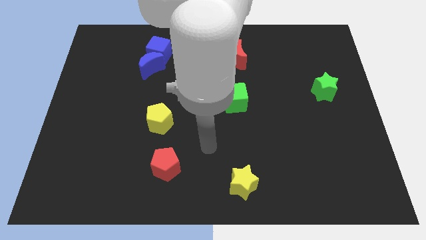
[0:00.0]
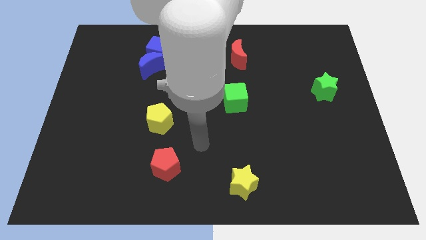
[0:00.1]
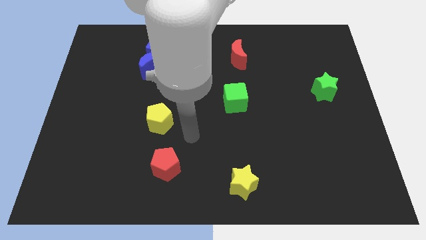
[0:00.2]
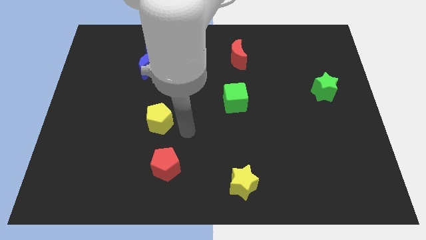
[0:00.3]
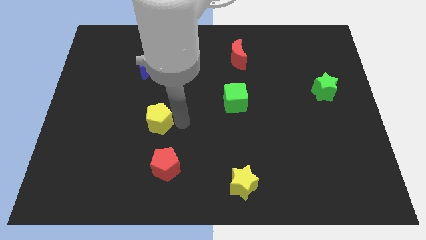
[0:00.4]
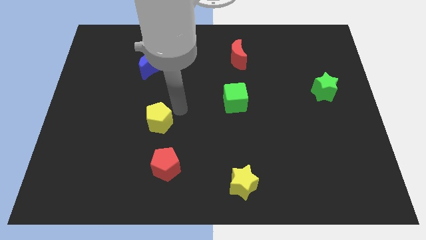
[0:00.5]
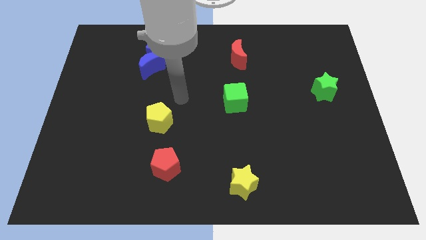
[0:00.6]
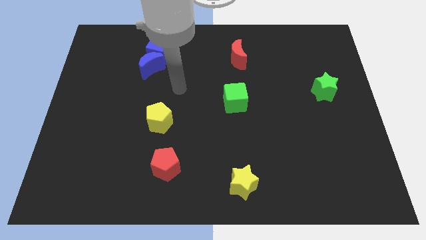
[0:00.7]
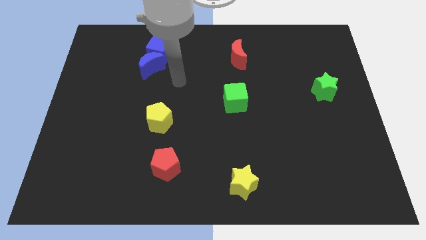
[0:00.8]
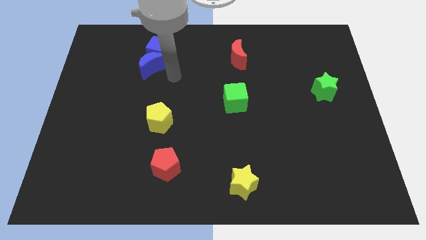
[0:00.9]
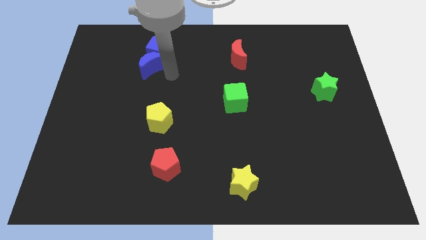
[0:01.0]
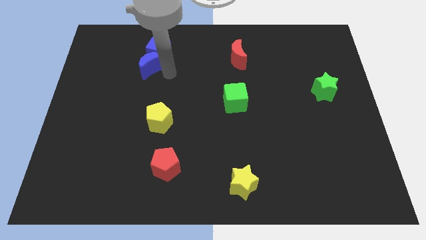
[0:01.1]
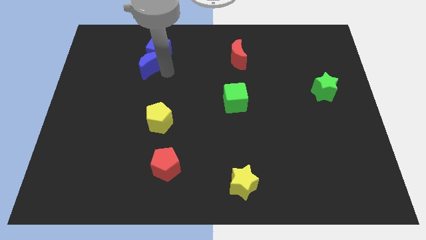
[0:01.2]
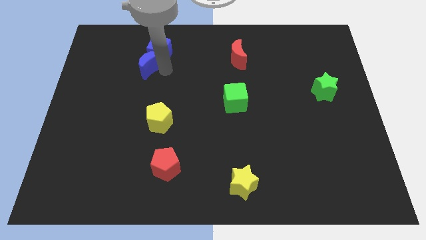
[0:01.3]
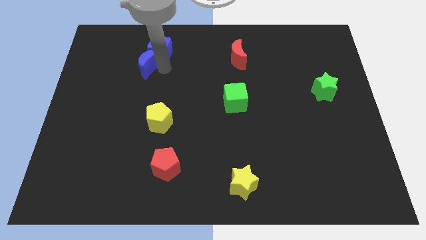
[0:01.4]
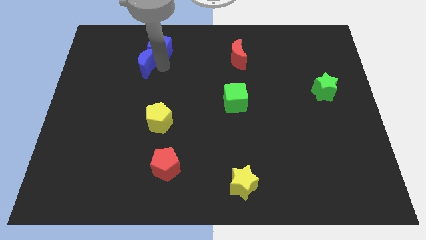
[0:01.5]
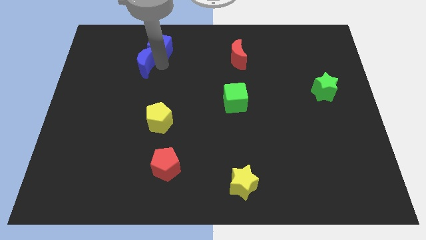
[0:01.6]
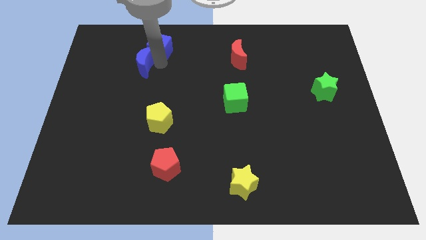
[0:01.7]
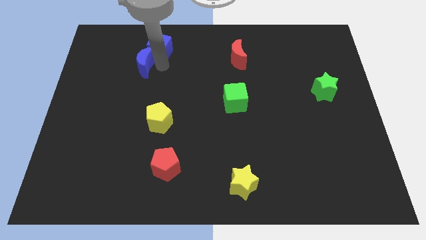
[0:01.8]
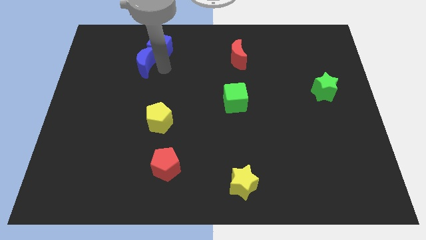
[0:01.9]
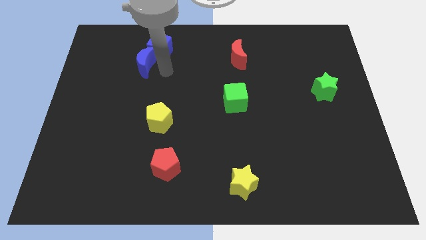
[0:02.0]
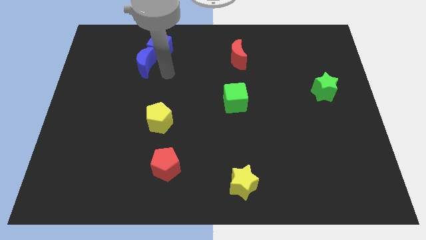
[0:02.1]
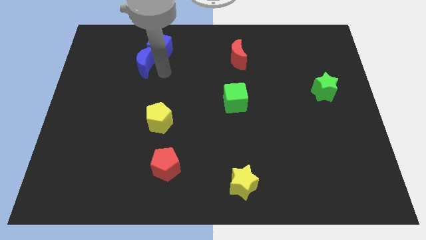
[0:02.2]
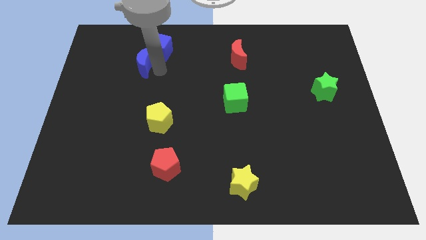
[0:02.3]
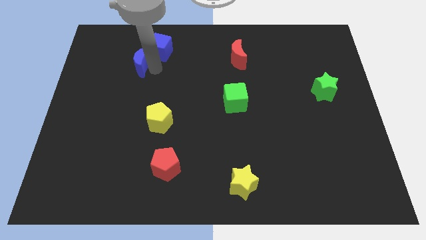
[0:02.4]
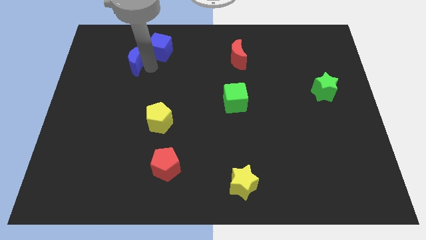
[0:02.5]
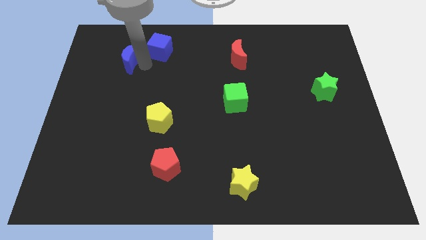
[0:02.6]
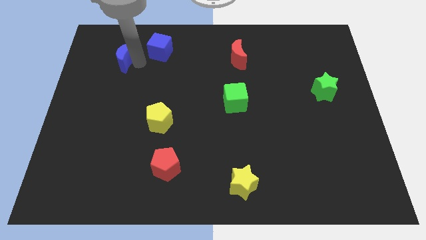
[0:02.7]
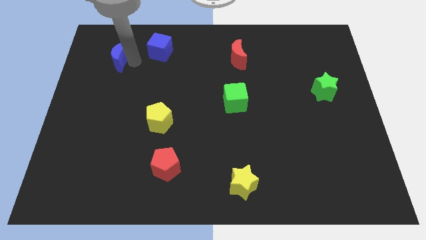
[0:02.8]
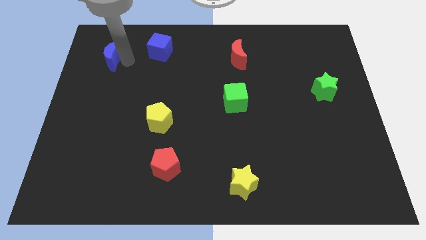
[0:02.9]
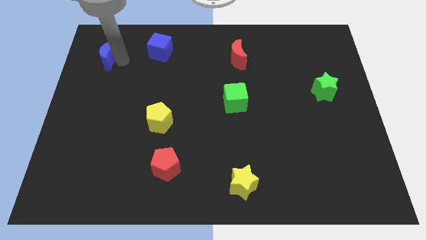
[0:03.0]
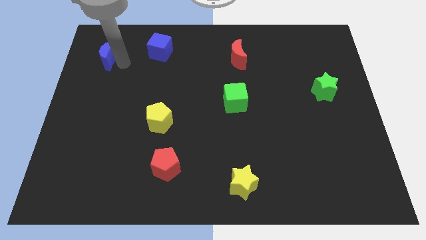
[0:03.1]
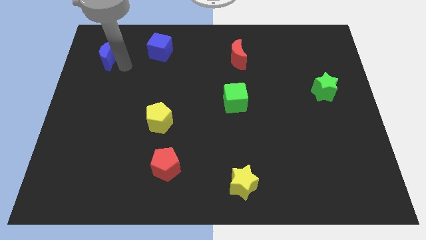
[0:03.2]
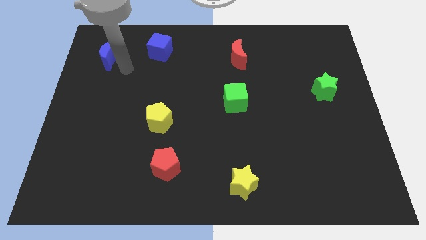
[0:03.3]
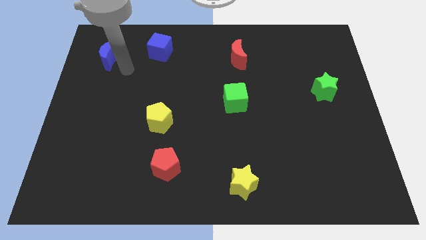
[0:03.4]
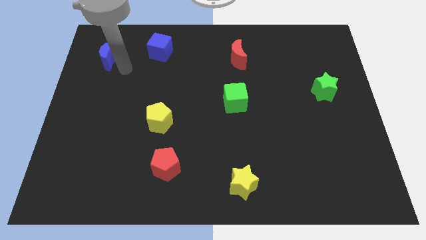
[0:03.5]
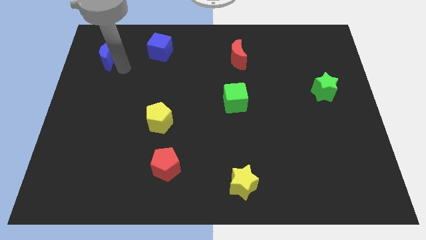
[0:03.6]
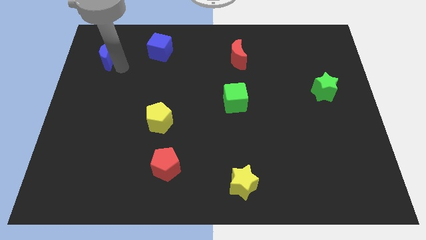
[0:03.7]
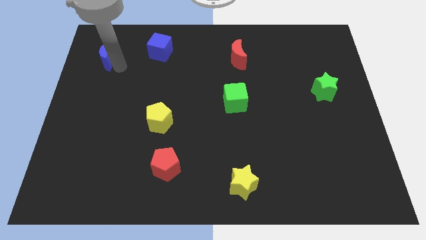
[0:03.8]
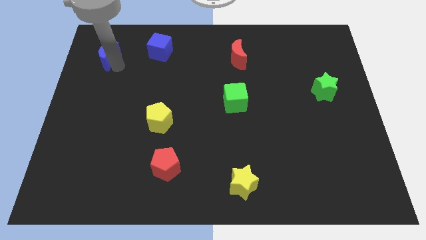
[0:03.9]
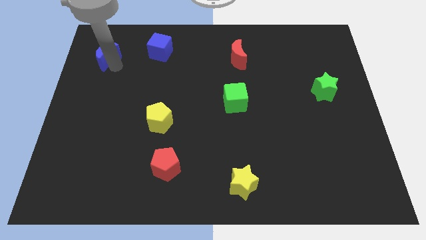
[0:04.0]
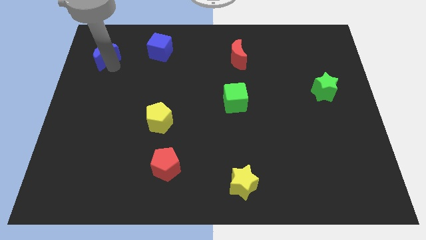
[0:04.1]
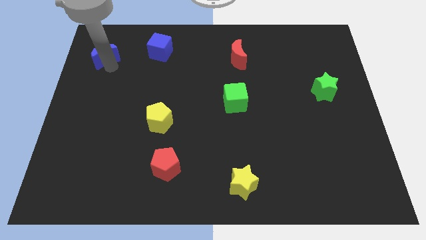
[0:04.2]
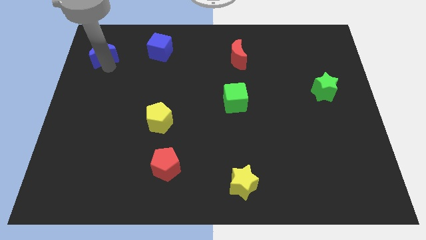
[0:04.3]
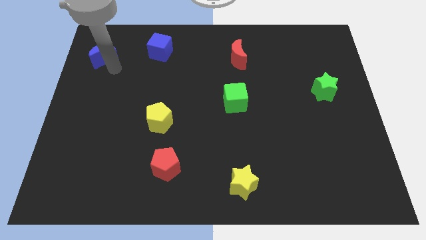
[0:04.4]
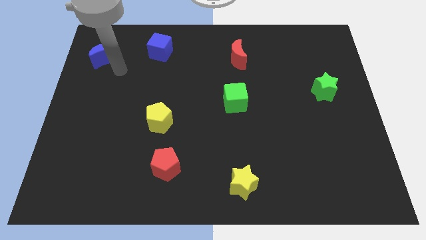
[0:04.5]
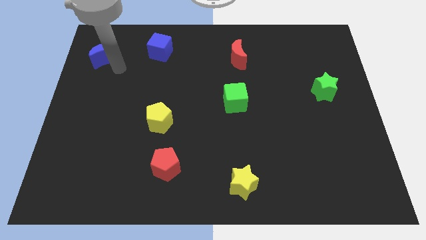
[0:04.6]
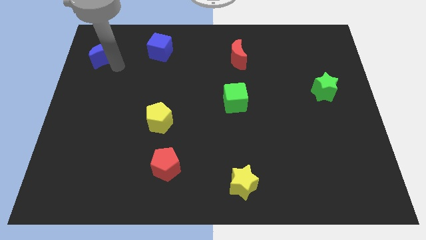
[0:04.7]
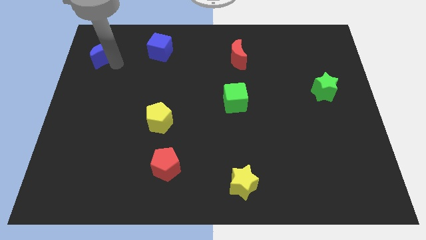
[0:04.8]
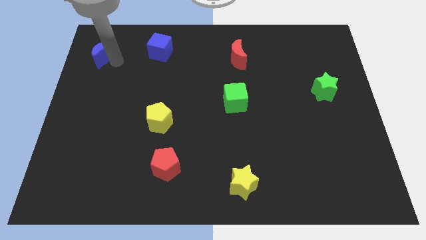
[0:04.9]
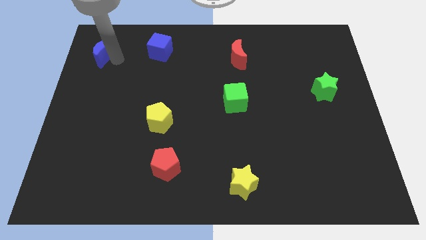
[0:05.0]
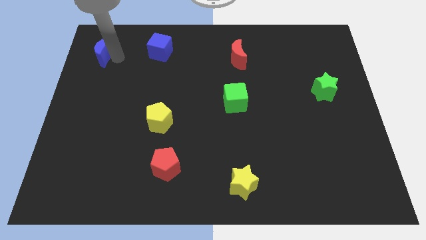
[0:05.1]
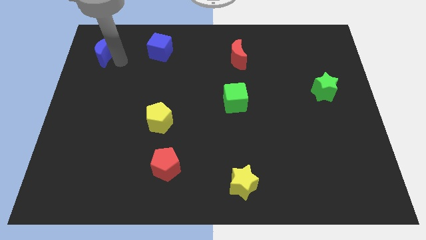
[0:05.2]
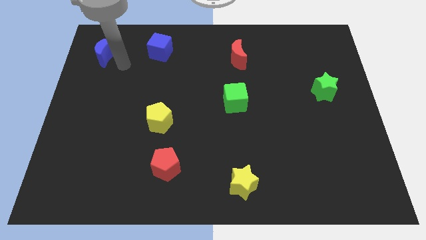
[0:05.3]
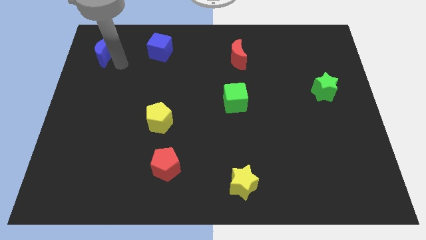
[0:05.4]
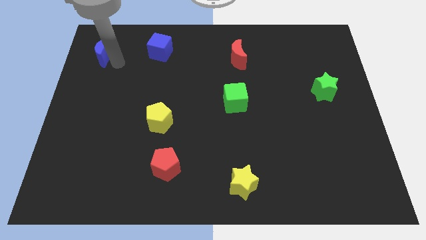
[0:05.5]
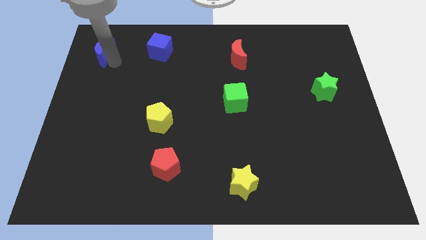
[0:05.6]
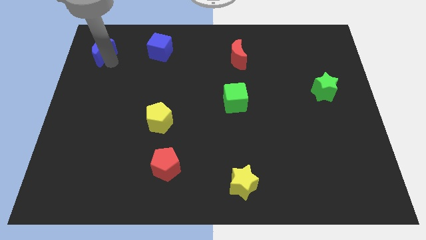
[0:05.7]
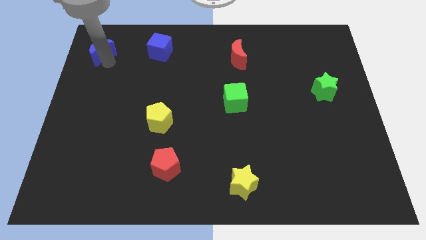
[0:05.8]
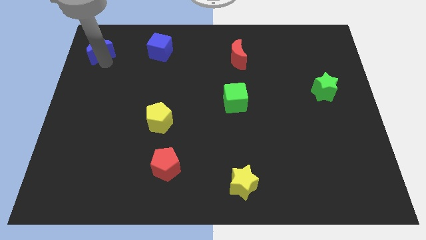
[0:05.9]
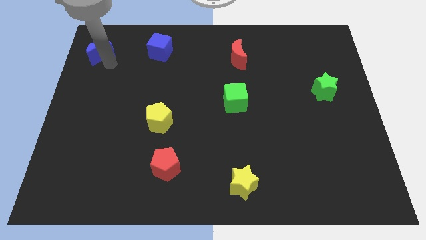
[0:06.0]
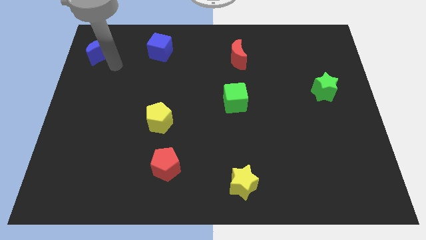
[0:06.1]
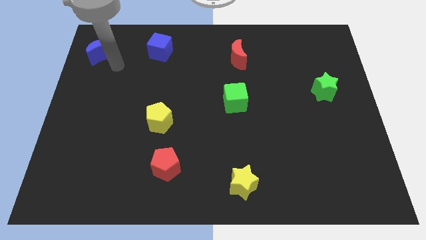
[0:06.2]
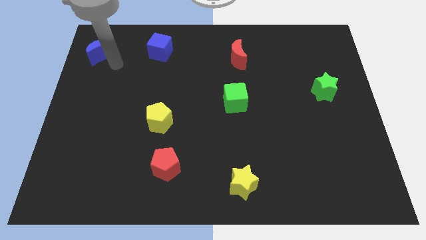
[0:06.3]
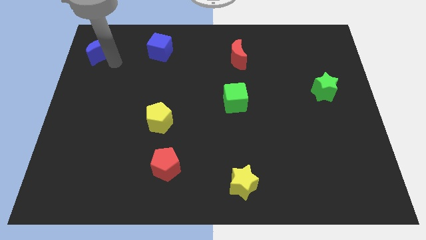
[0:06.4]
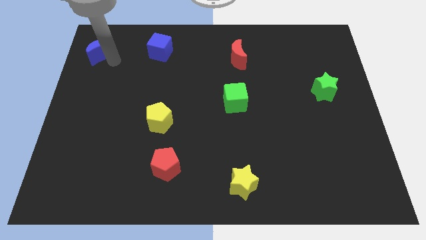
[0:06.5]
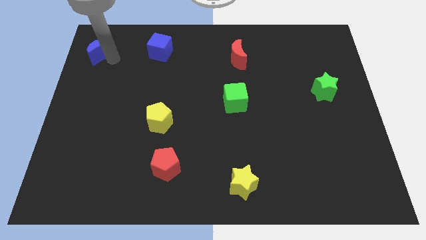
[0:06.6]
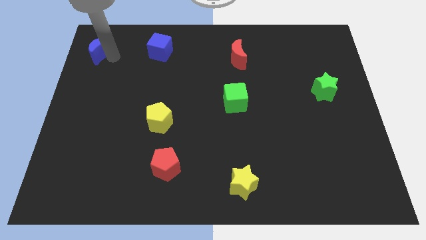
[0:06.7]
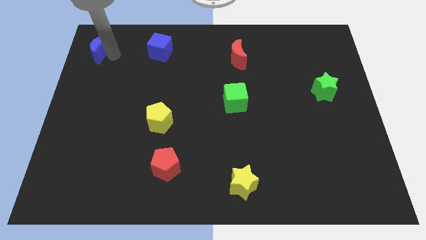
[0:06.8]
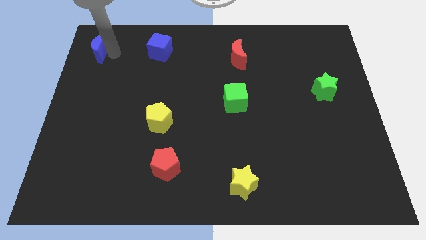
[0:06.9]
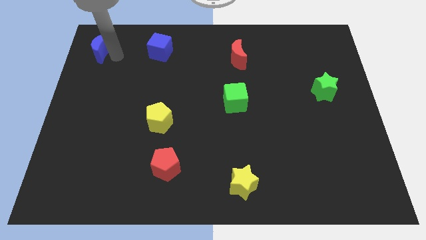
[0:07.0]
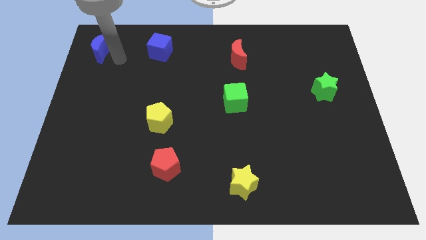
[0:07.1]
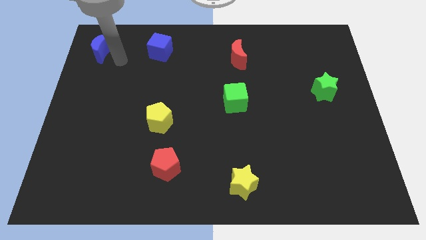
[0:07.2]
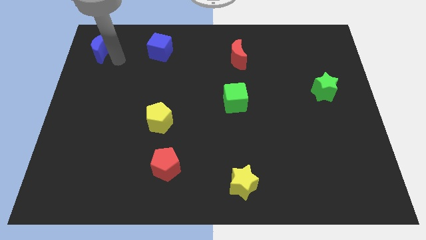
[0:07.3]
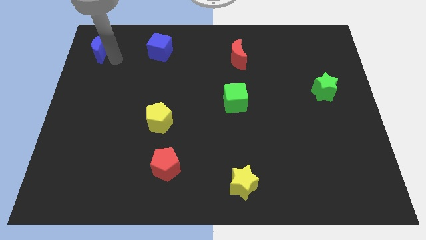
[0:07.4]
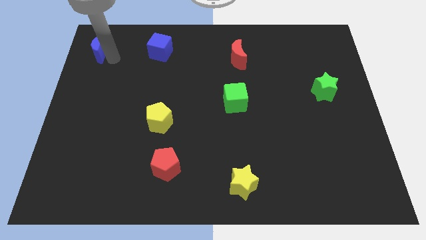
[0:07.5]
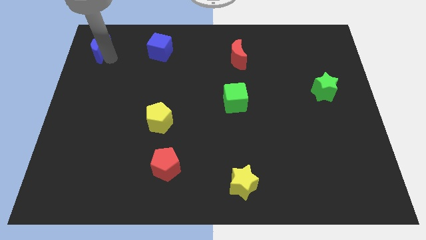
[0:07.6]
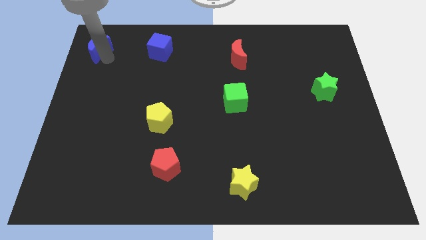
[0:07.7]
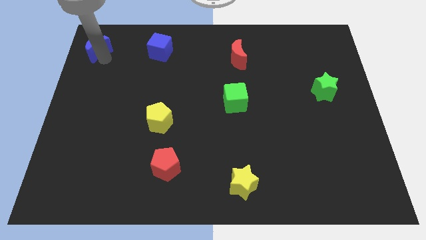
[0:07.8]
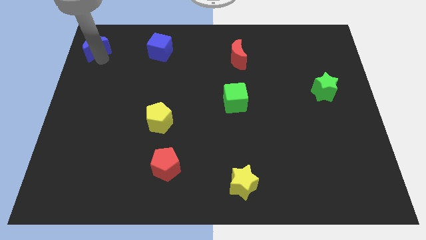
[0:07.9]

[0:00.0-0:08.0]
put the blue moon to the top left

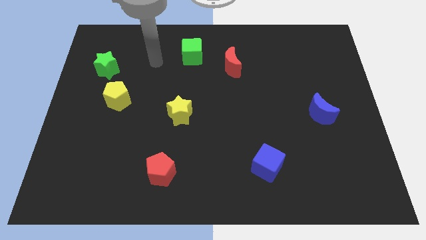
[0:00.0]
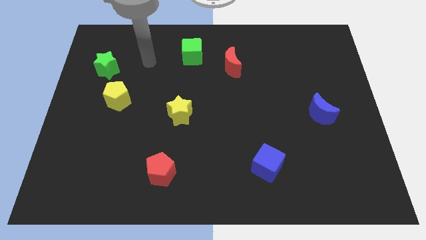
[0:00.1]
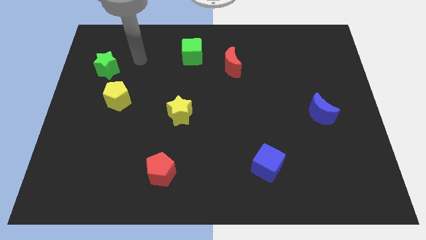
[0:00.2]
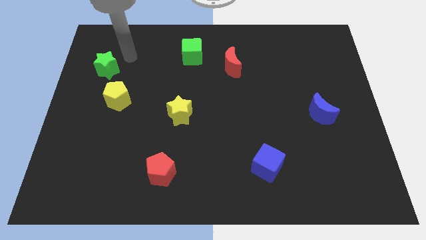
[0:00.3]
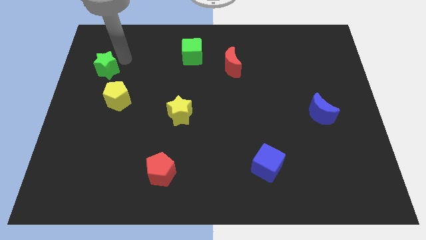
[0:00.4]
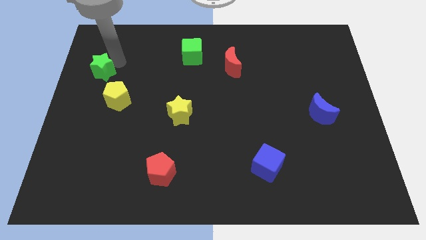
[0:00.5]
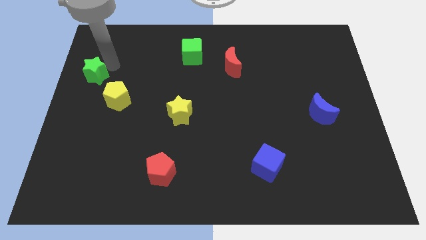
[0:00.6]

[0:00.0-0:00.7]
slide the green star to the left side
